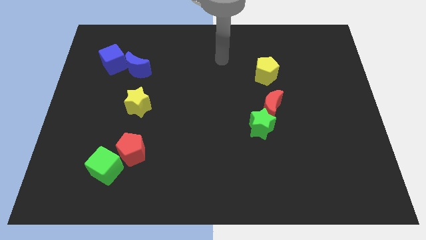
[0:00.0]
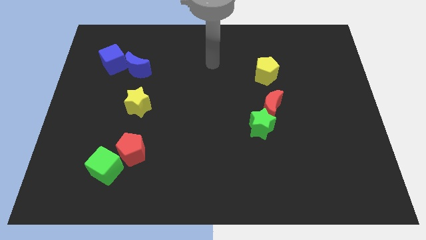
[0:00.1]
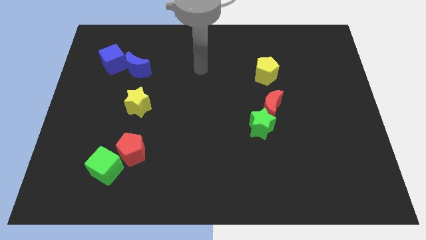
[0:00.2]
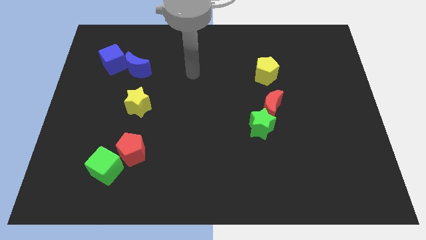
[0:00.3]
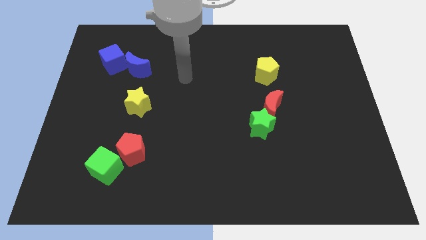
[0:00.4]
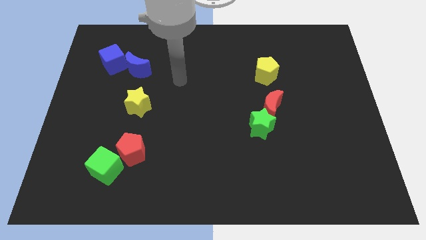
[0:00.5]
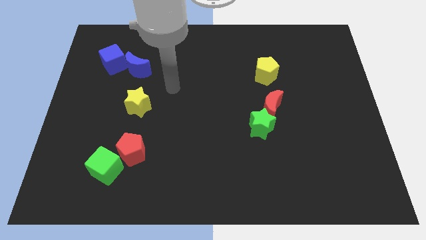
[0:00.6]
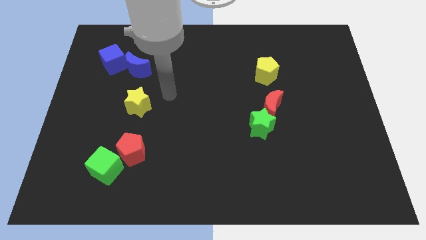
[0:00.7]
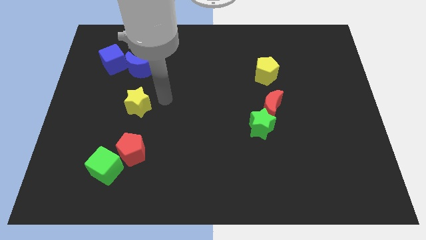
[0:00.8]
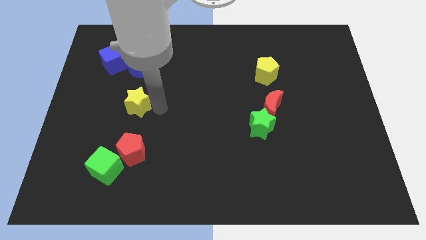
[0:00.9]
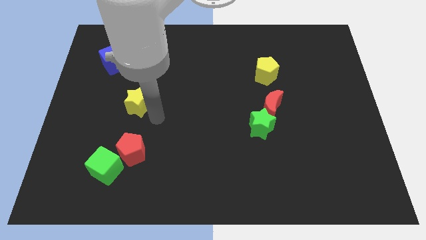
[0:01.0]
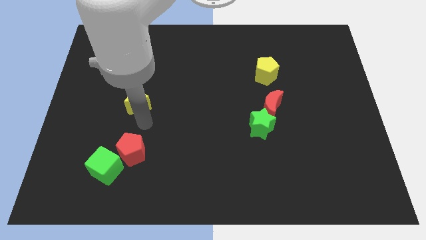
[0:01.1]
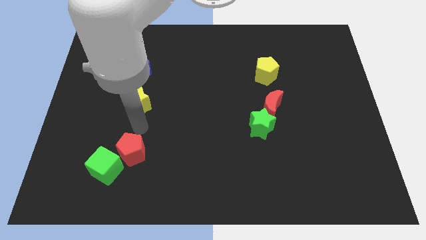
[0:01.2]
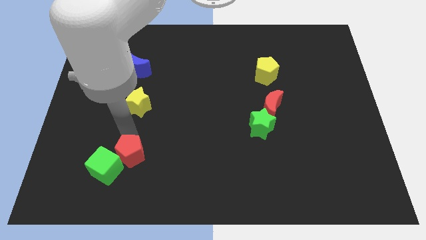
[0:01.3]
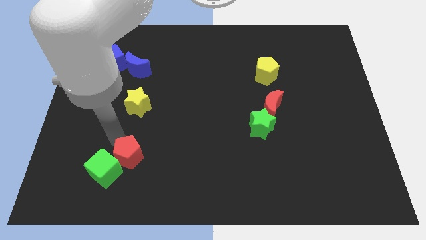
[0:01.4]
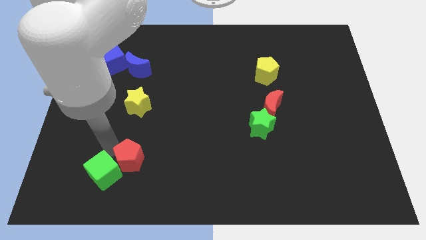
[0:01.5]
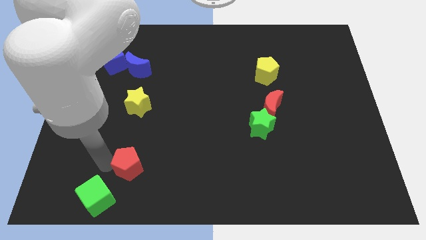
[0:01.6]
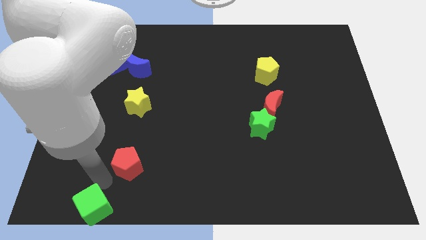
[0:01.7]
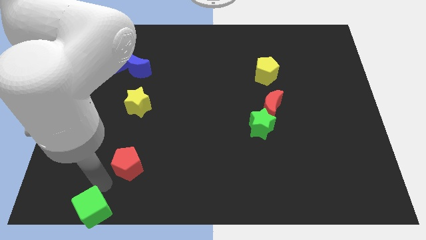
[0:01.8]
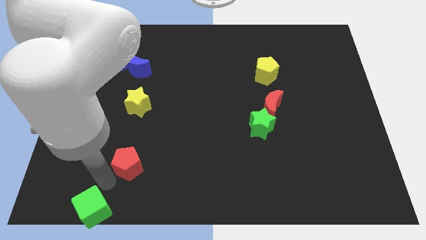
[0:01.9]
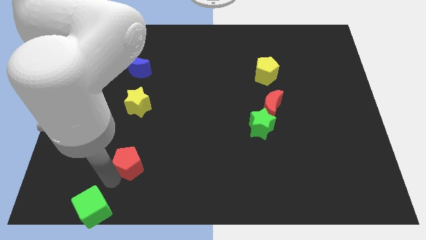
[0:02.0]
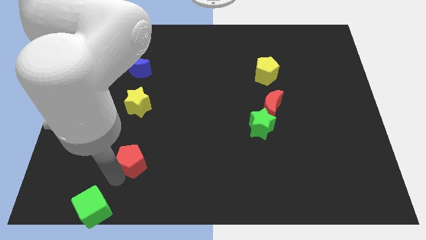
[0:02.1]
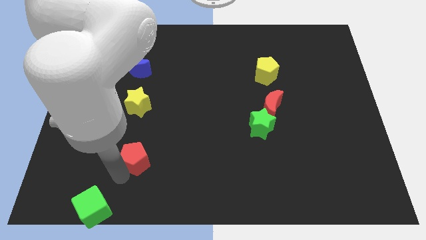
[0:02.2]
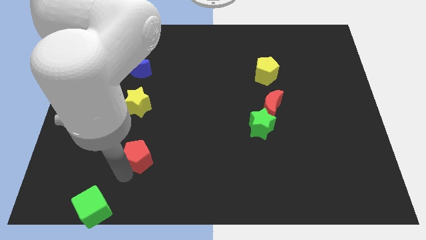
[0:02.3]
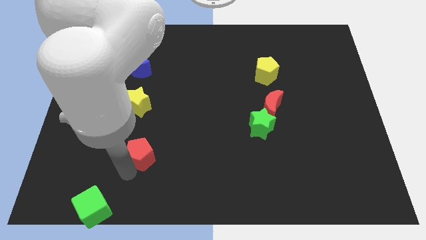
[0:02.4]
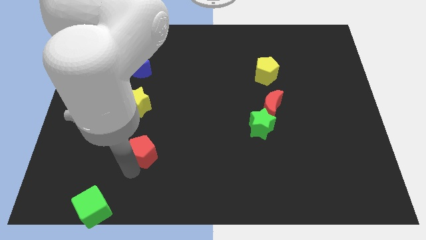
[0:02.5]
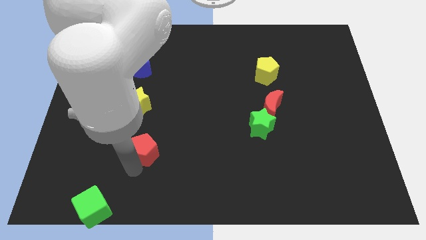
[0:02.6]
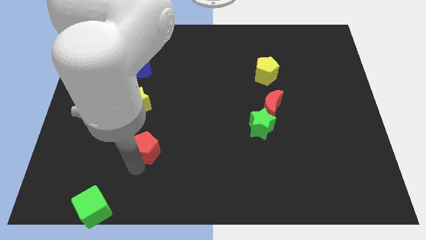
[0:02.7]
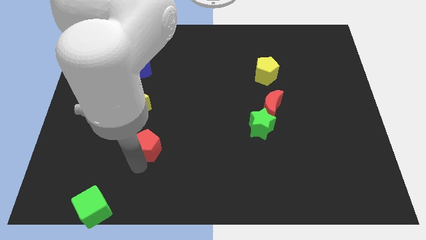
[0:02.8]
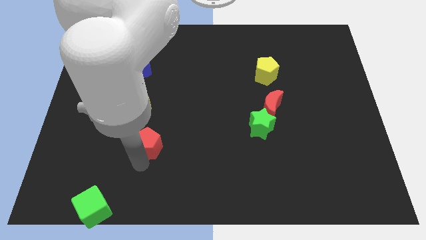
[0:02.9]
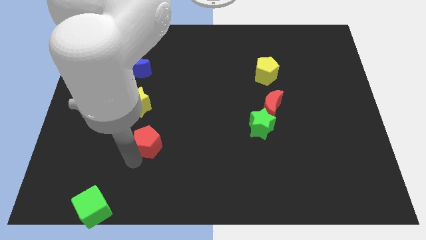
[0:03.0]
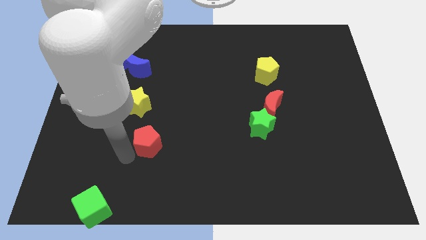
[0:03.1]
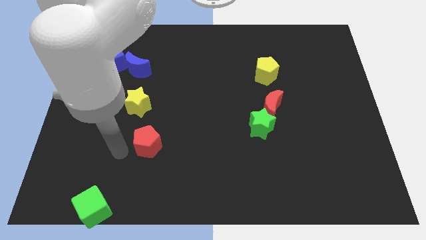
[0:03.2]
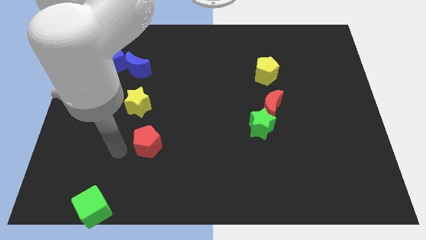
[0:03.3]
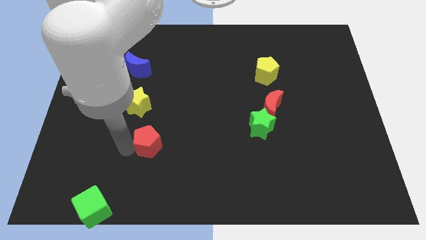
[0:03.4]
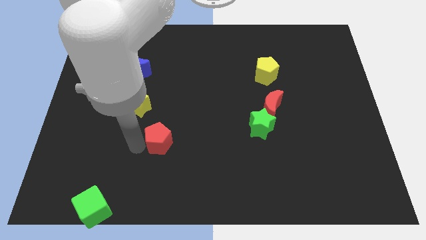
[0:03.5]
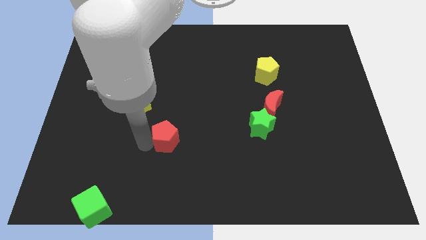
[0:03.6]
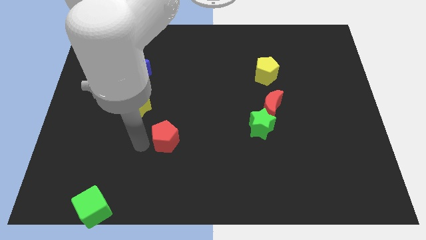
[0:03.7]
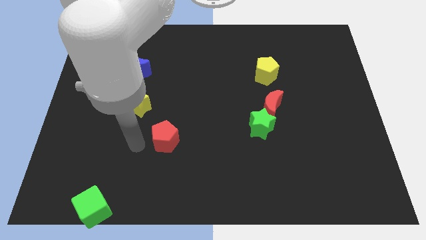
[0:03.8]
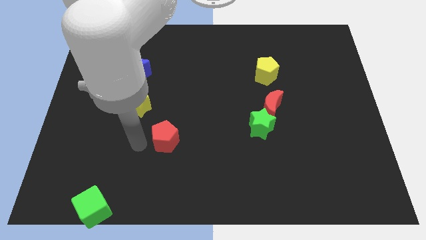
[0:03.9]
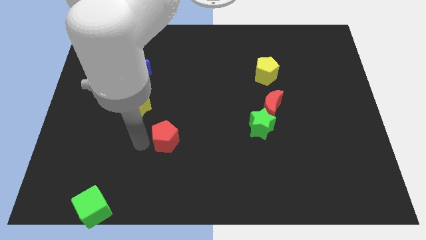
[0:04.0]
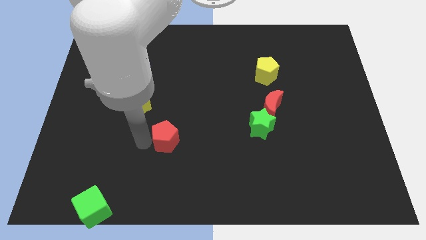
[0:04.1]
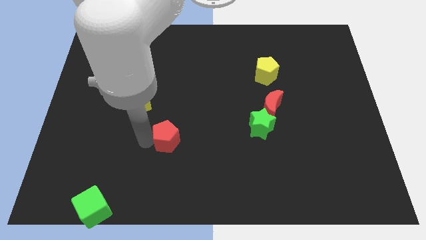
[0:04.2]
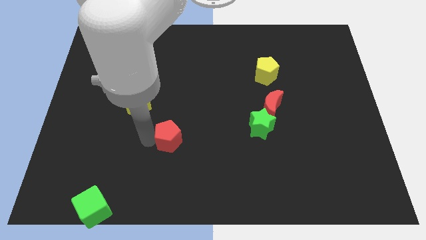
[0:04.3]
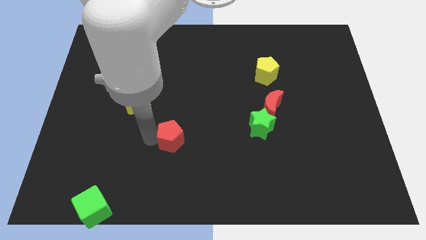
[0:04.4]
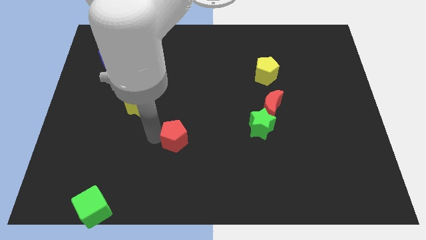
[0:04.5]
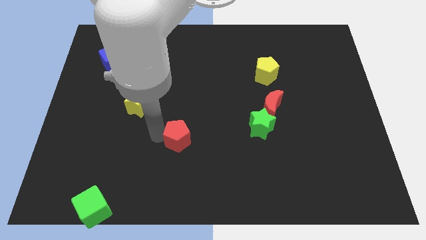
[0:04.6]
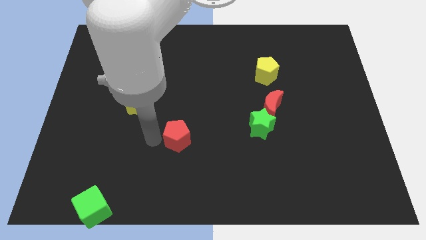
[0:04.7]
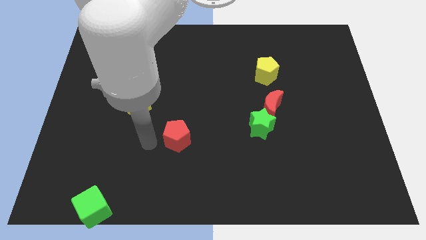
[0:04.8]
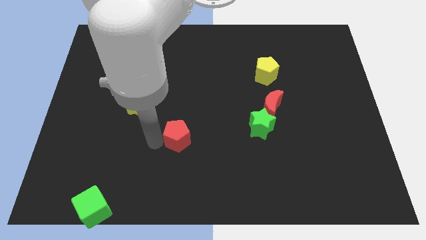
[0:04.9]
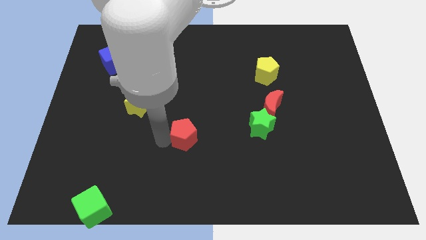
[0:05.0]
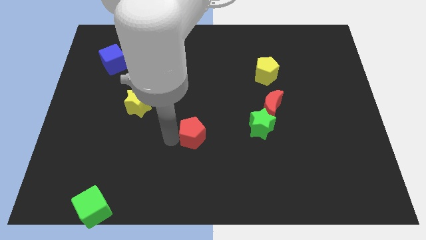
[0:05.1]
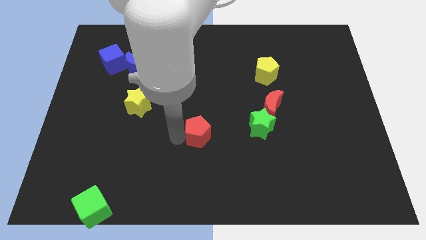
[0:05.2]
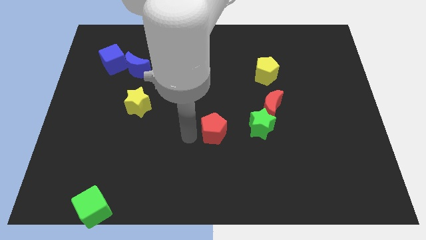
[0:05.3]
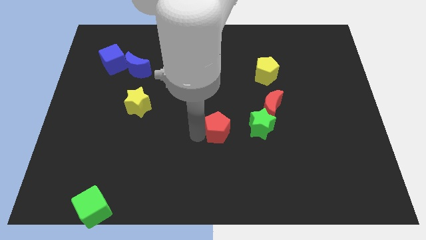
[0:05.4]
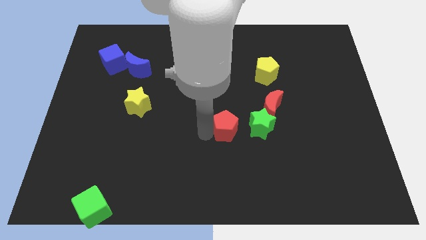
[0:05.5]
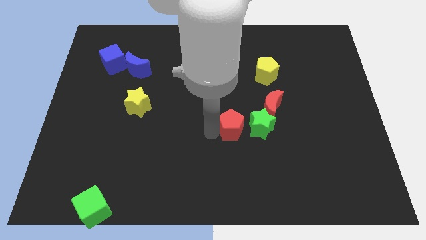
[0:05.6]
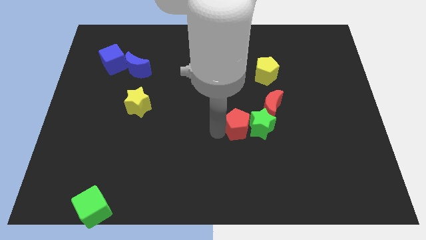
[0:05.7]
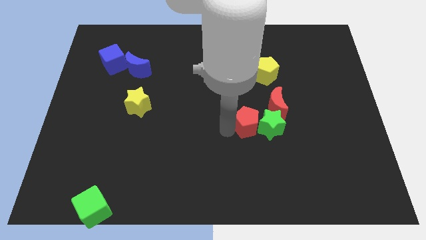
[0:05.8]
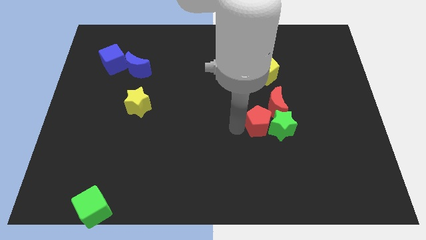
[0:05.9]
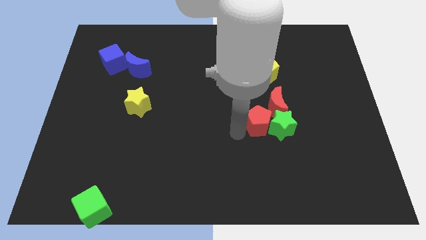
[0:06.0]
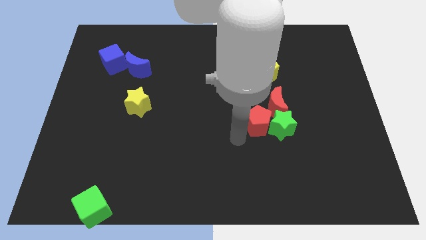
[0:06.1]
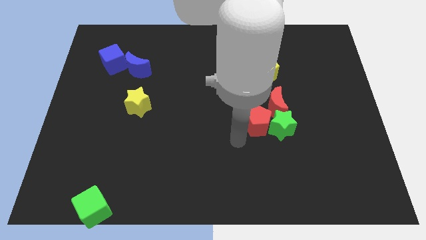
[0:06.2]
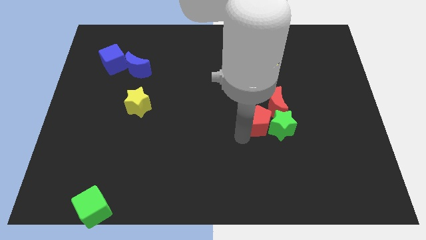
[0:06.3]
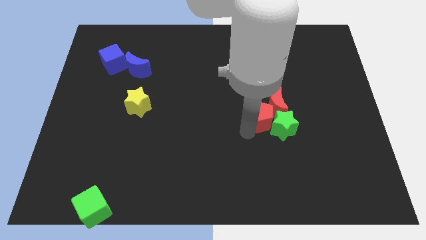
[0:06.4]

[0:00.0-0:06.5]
push the red pentagon towards the red moon

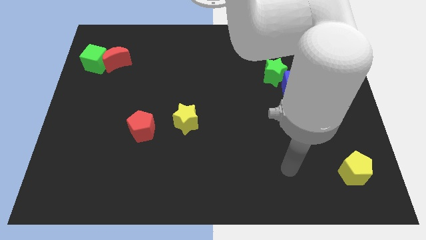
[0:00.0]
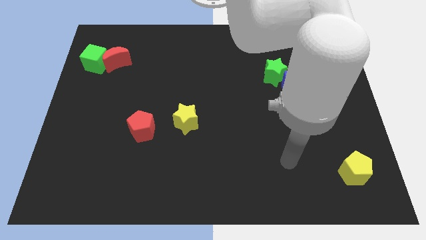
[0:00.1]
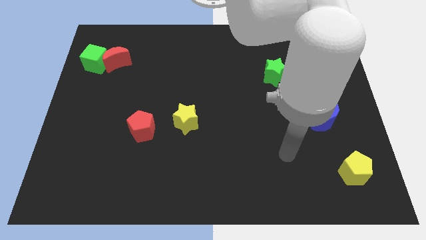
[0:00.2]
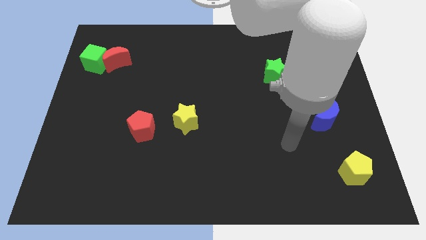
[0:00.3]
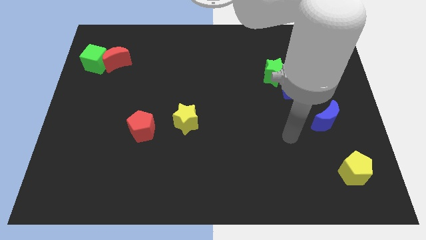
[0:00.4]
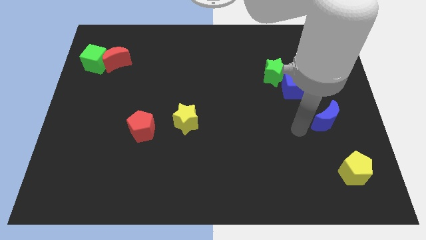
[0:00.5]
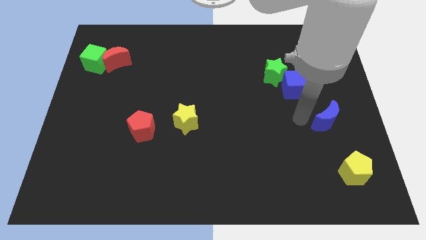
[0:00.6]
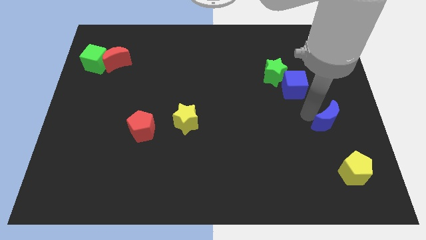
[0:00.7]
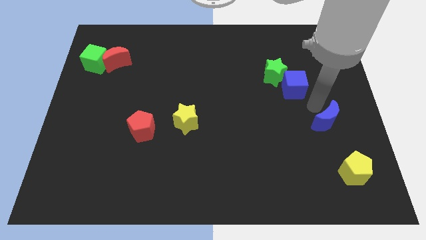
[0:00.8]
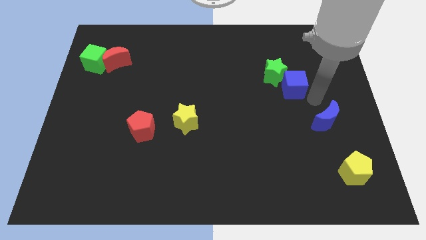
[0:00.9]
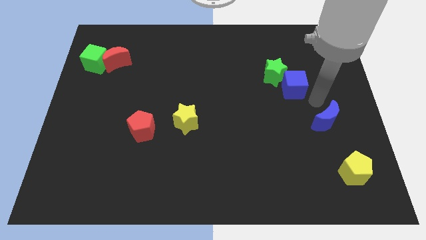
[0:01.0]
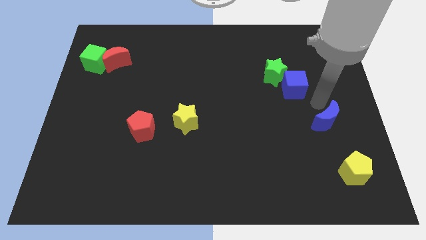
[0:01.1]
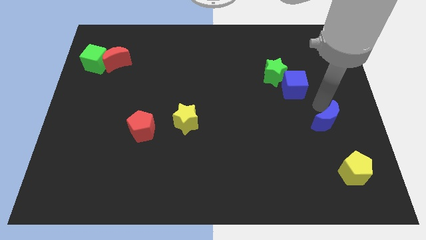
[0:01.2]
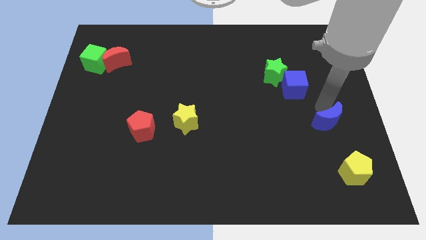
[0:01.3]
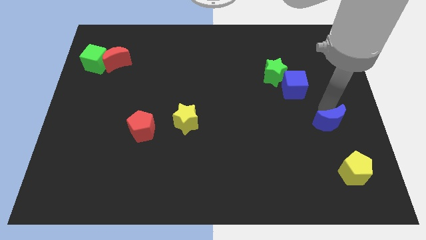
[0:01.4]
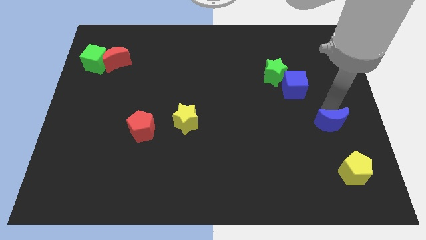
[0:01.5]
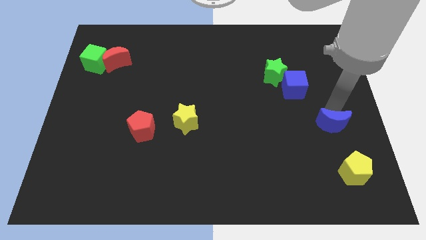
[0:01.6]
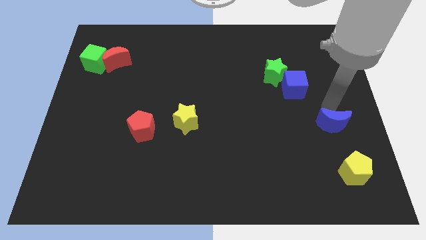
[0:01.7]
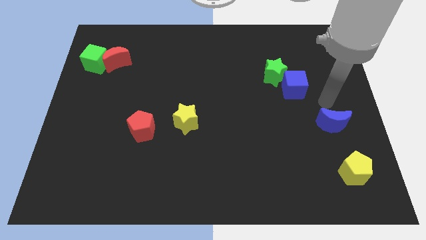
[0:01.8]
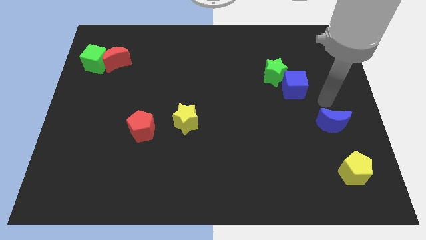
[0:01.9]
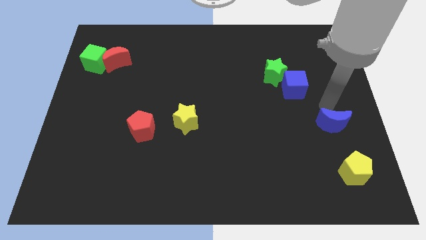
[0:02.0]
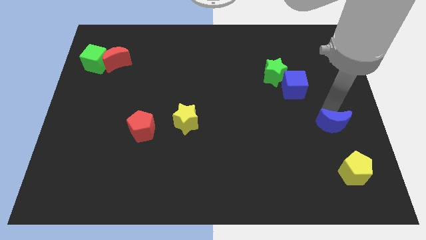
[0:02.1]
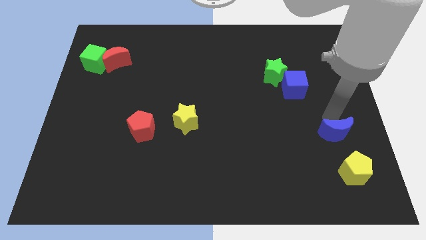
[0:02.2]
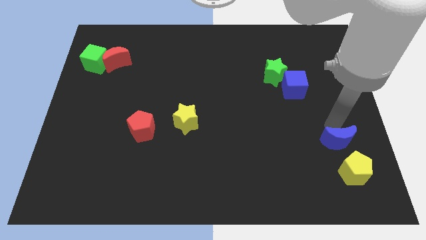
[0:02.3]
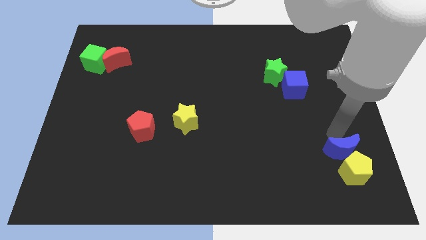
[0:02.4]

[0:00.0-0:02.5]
slide the blue moon next to the yellow pentagon
